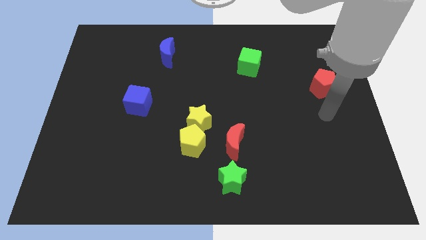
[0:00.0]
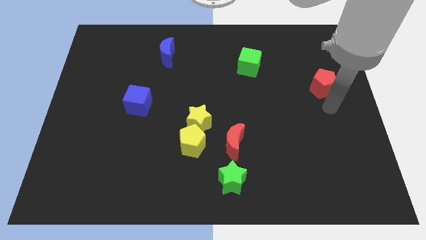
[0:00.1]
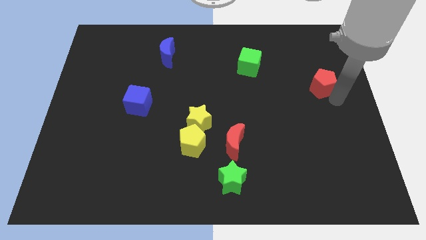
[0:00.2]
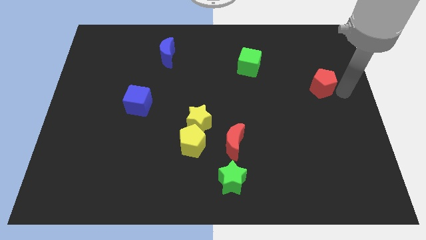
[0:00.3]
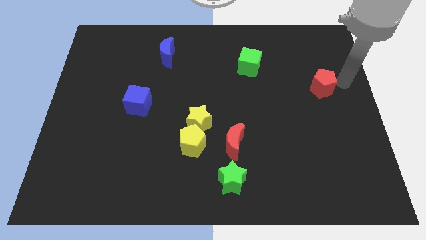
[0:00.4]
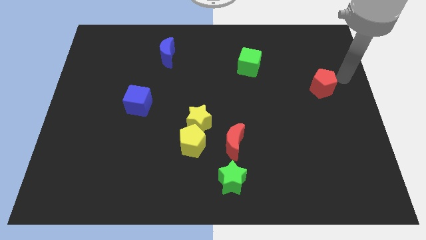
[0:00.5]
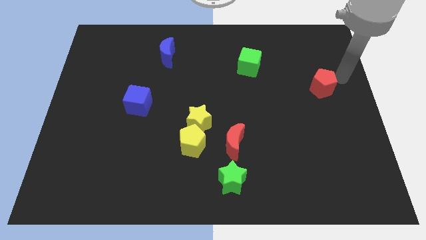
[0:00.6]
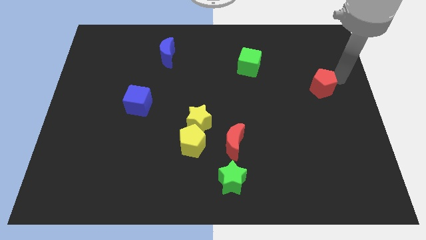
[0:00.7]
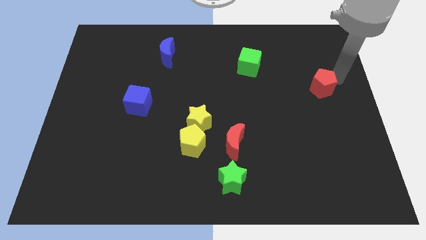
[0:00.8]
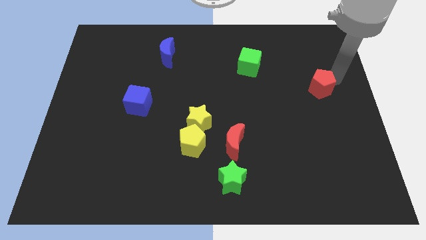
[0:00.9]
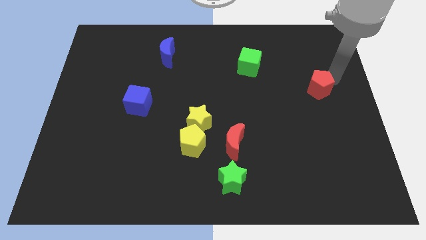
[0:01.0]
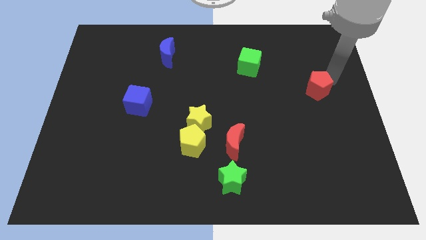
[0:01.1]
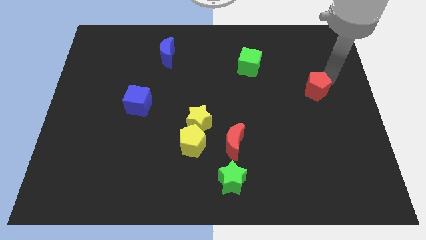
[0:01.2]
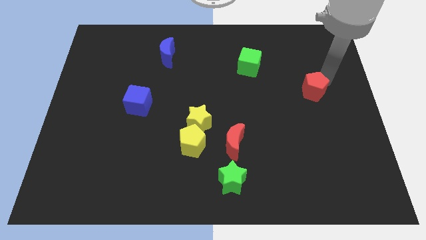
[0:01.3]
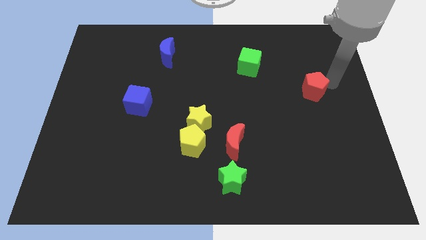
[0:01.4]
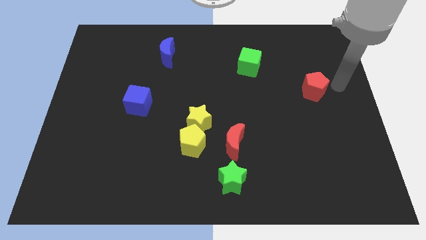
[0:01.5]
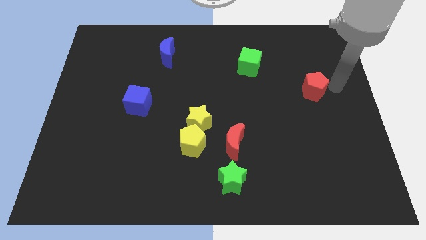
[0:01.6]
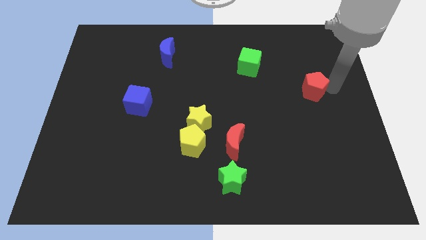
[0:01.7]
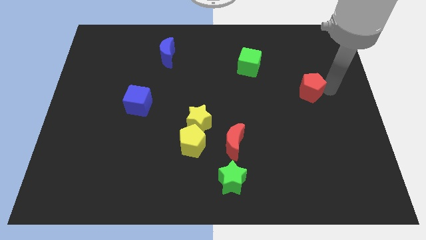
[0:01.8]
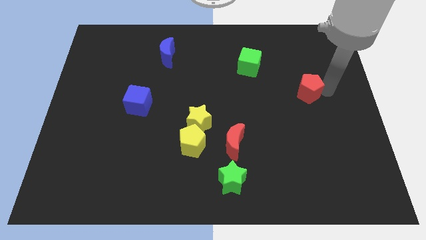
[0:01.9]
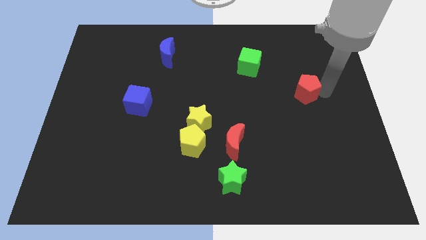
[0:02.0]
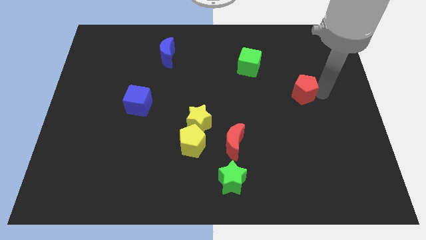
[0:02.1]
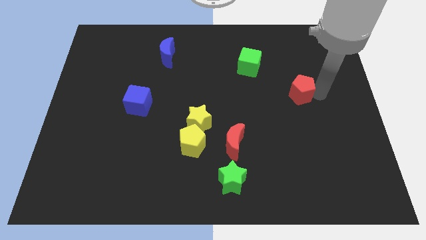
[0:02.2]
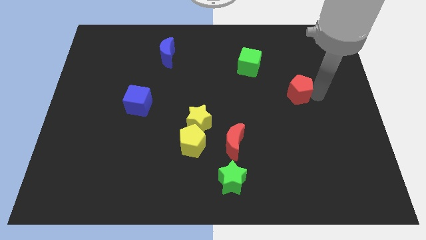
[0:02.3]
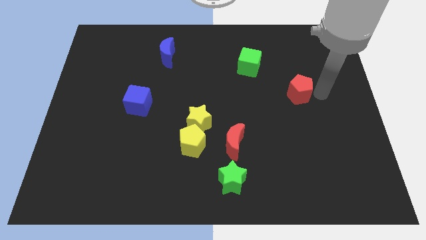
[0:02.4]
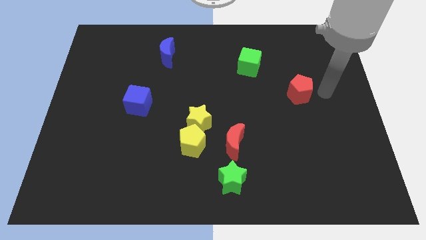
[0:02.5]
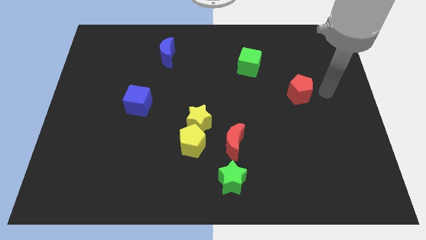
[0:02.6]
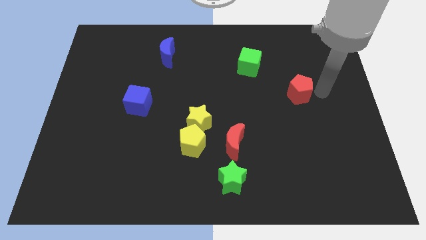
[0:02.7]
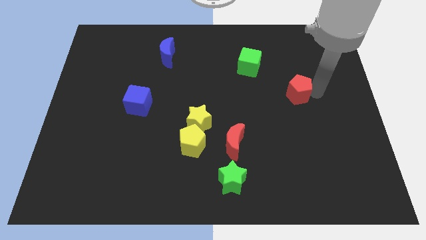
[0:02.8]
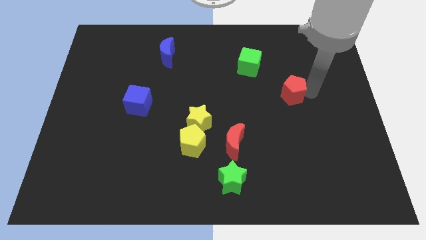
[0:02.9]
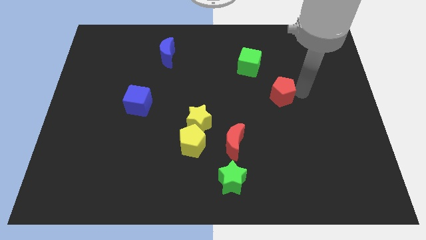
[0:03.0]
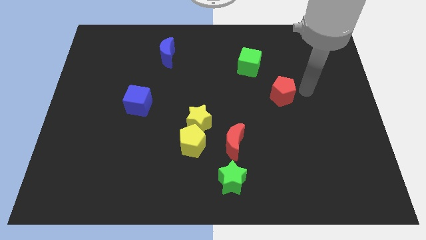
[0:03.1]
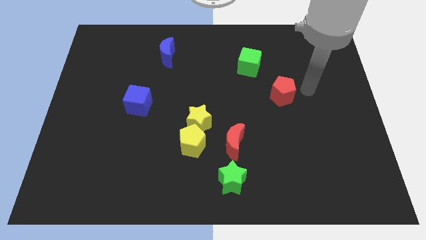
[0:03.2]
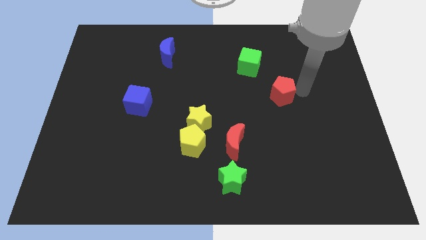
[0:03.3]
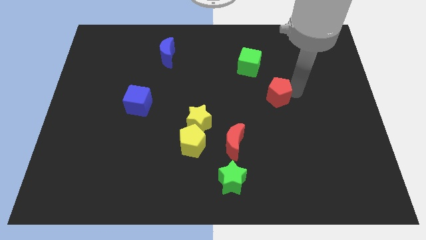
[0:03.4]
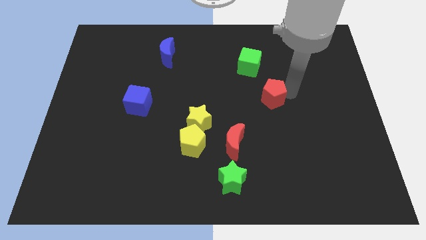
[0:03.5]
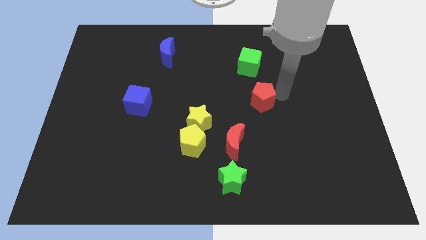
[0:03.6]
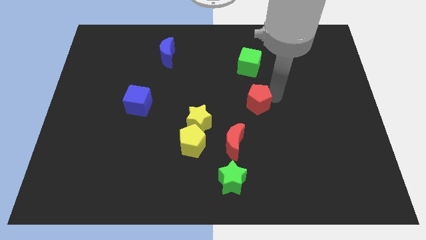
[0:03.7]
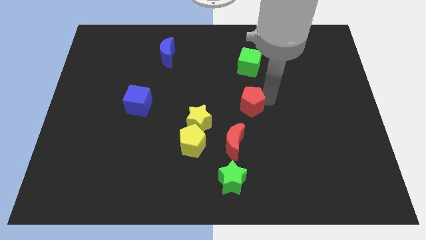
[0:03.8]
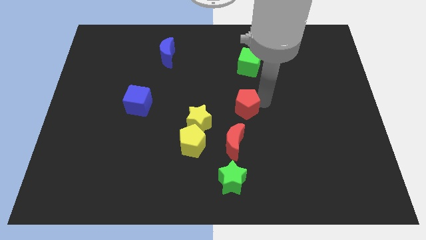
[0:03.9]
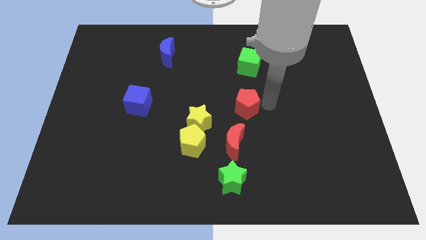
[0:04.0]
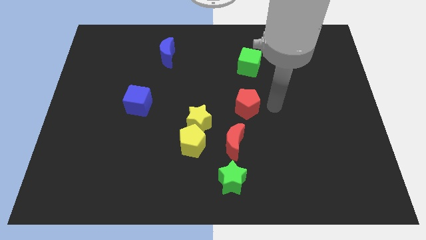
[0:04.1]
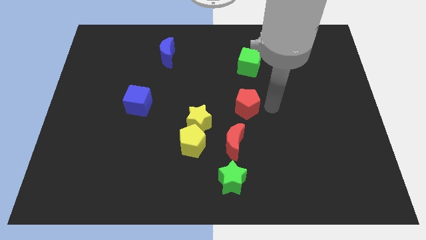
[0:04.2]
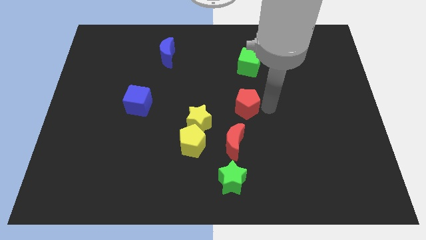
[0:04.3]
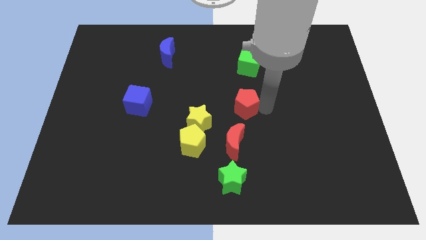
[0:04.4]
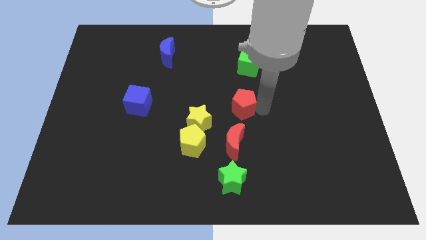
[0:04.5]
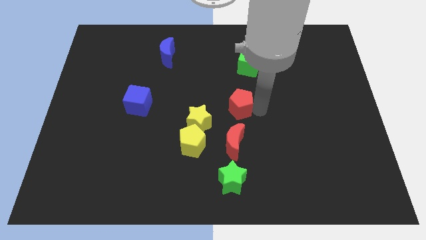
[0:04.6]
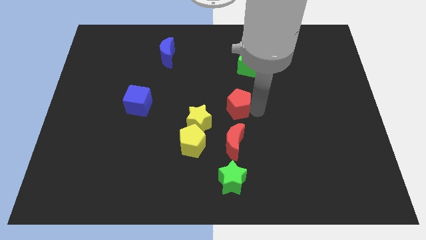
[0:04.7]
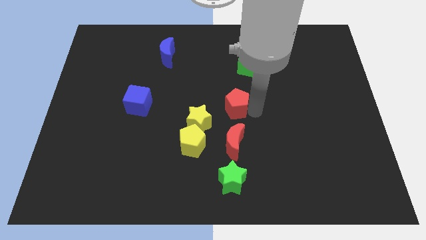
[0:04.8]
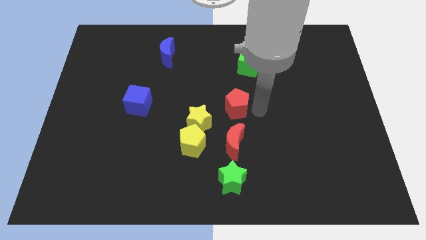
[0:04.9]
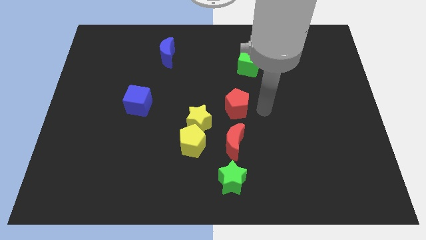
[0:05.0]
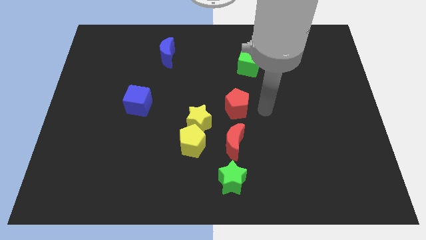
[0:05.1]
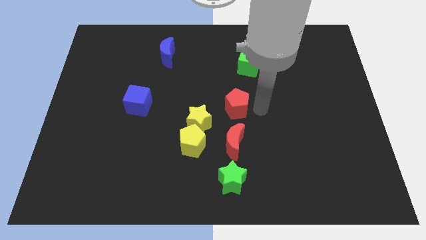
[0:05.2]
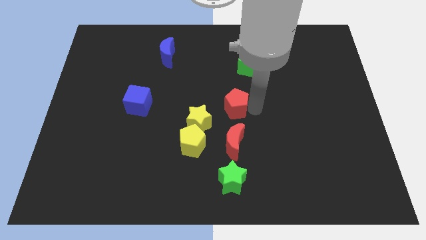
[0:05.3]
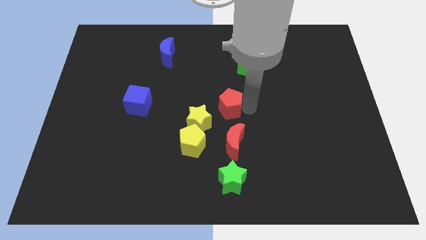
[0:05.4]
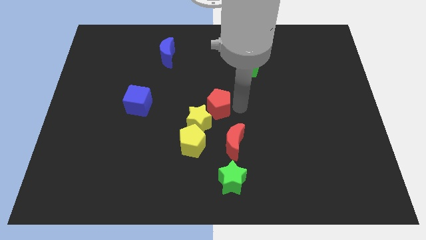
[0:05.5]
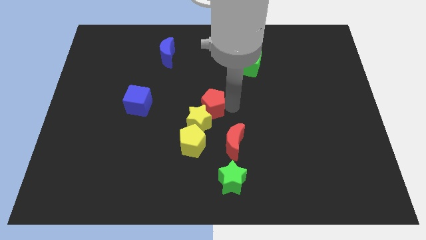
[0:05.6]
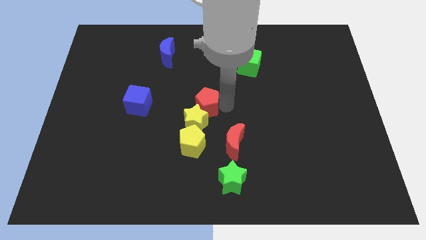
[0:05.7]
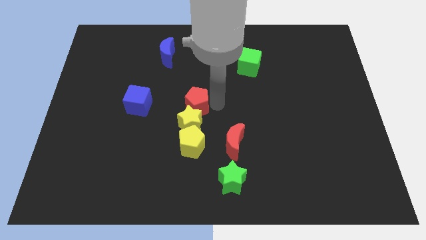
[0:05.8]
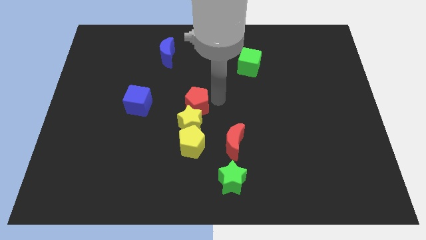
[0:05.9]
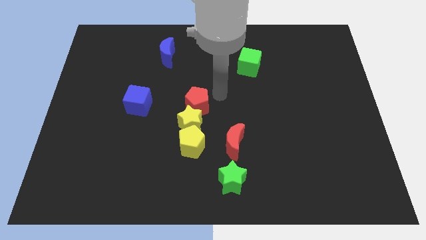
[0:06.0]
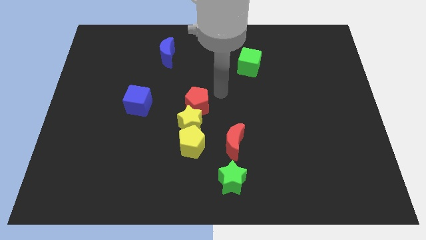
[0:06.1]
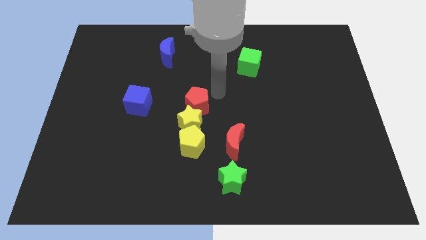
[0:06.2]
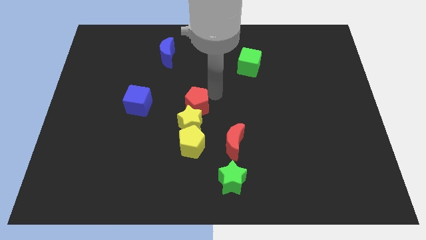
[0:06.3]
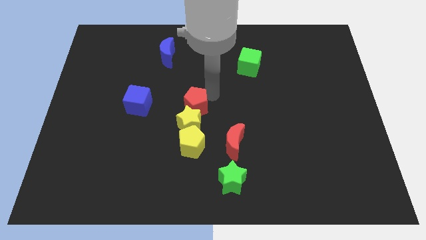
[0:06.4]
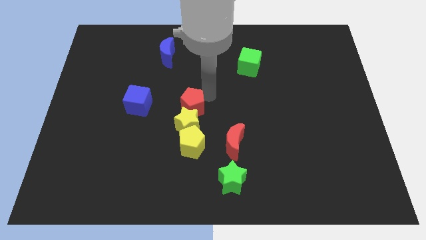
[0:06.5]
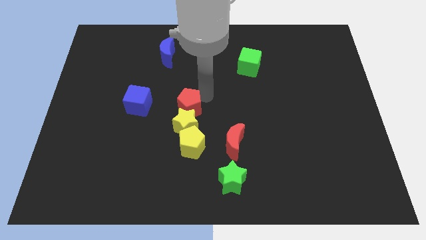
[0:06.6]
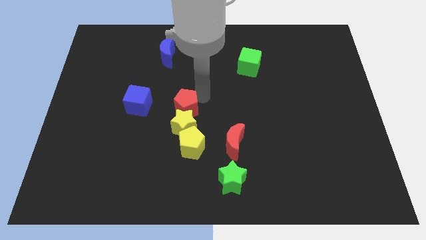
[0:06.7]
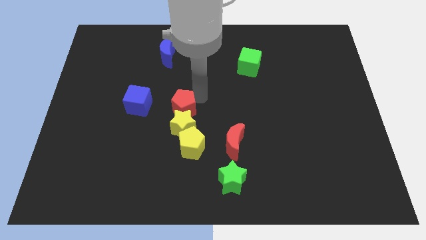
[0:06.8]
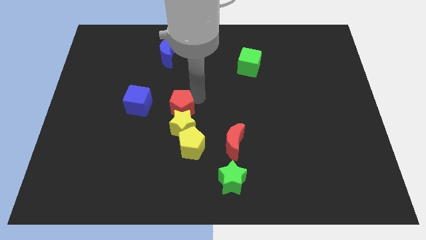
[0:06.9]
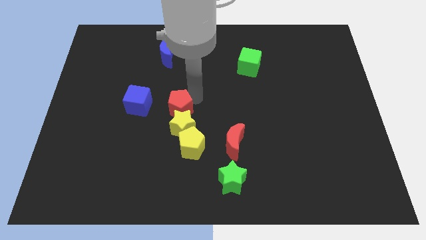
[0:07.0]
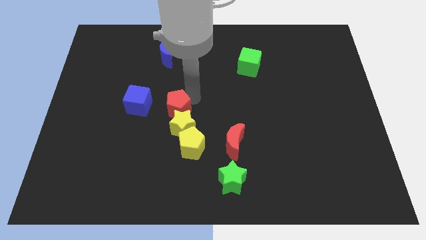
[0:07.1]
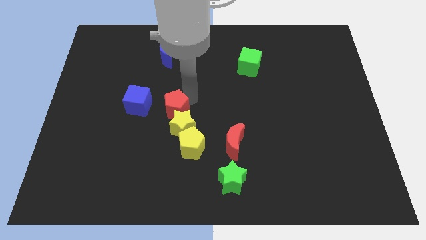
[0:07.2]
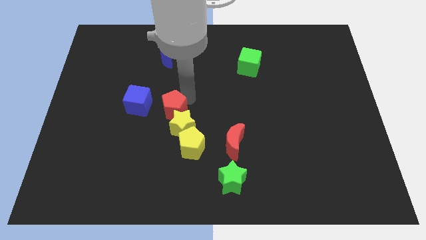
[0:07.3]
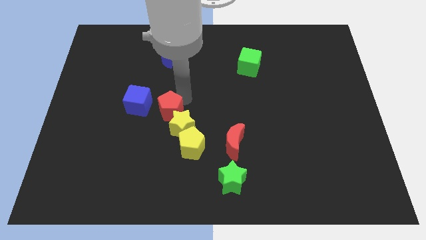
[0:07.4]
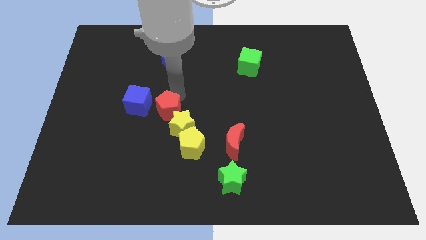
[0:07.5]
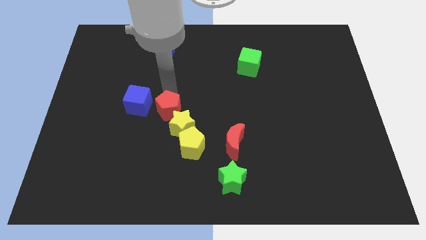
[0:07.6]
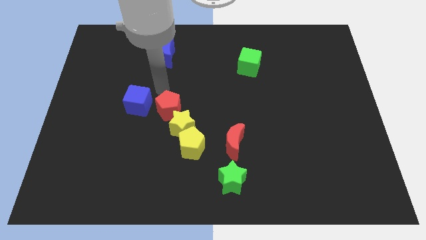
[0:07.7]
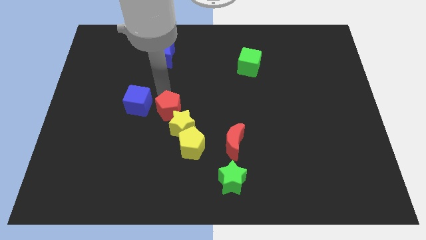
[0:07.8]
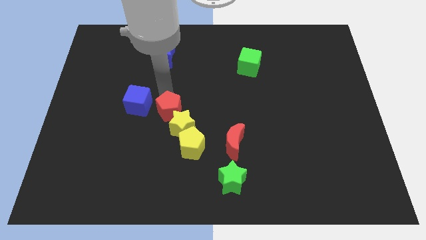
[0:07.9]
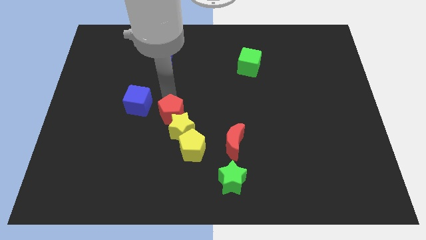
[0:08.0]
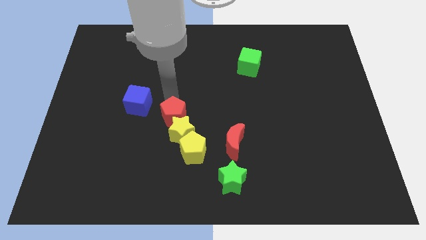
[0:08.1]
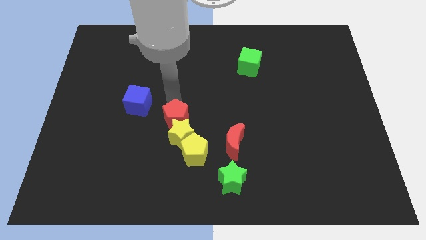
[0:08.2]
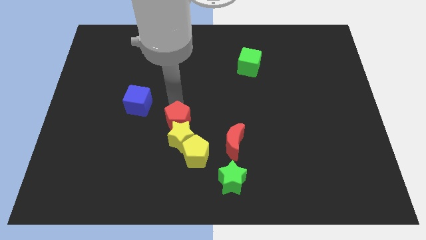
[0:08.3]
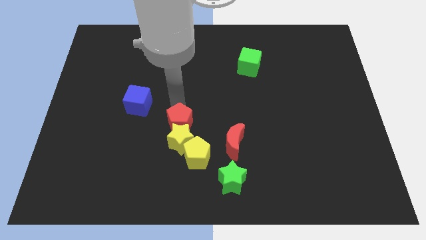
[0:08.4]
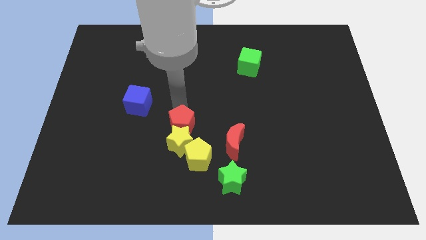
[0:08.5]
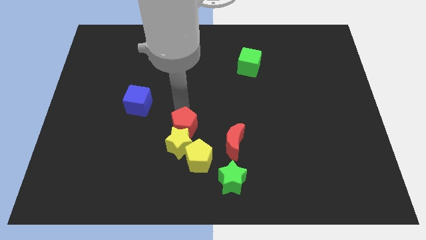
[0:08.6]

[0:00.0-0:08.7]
move the red pentagon just left of the red moon
